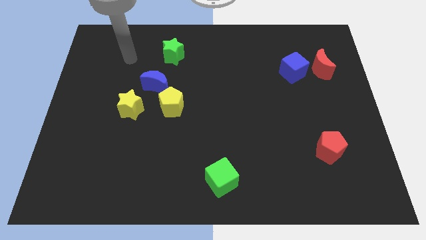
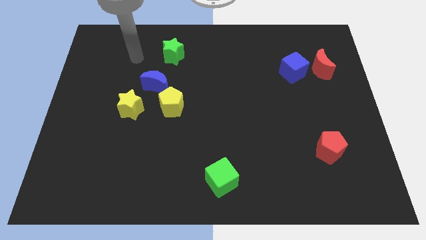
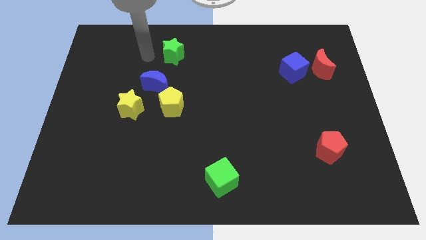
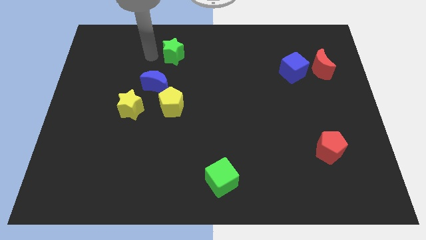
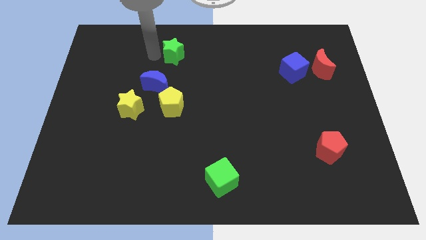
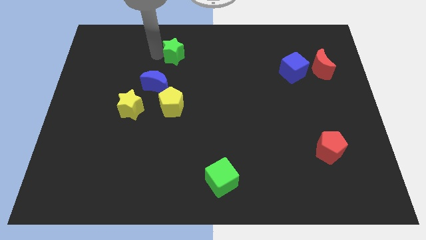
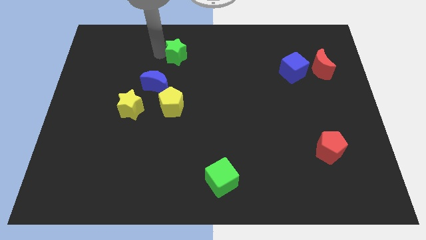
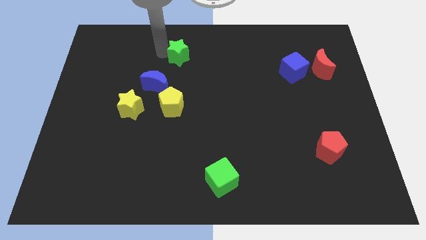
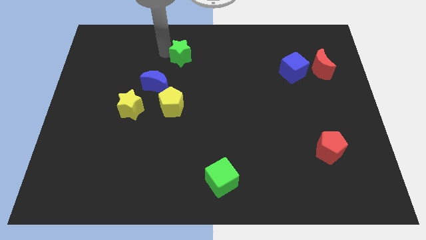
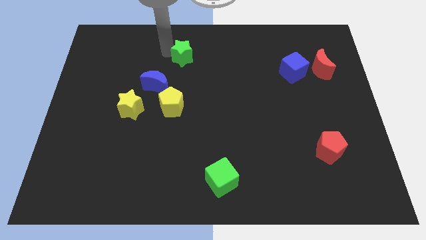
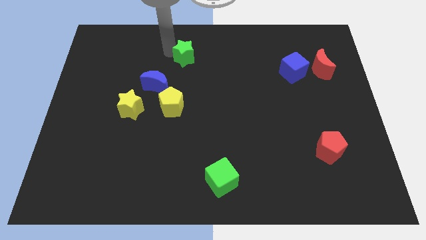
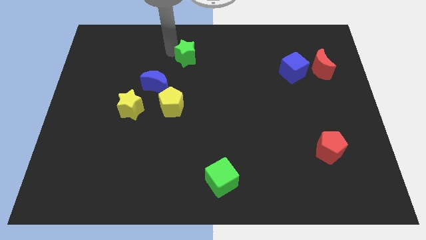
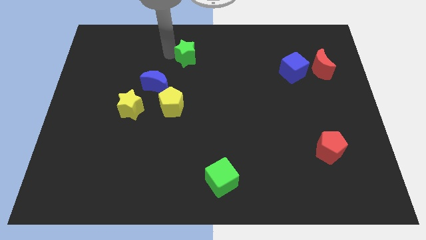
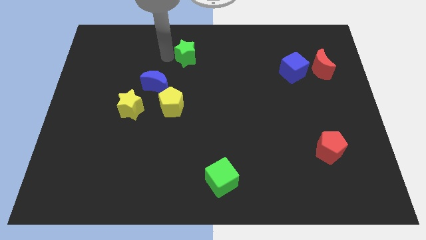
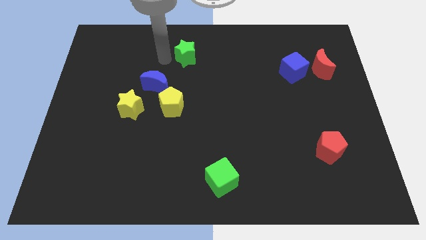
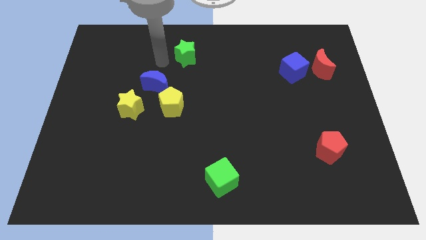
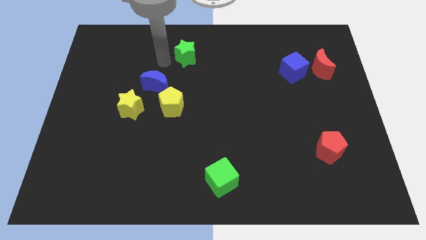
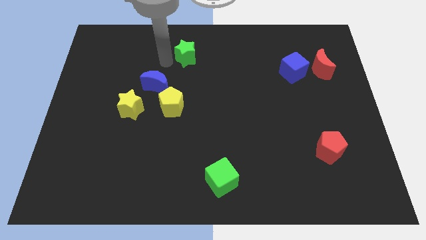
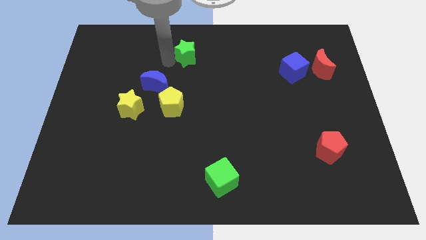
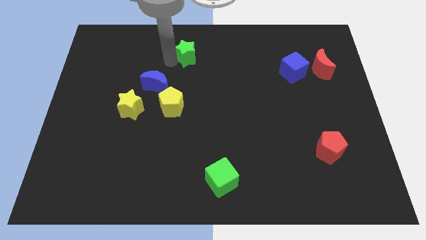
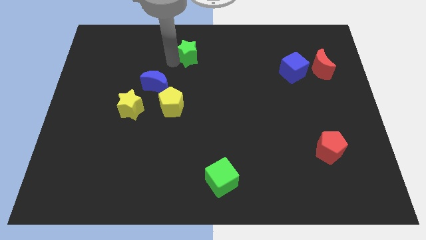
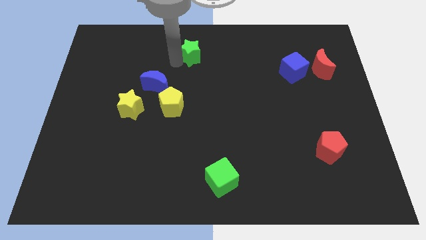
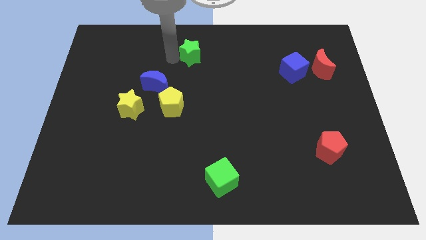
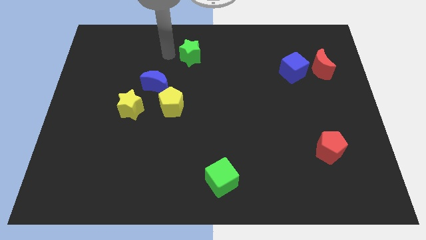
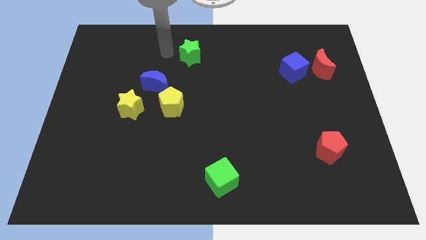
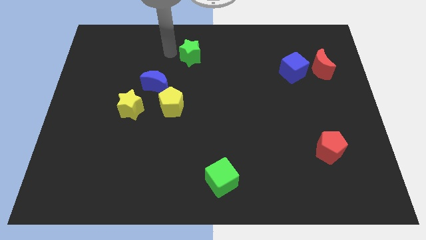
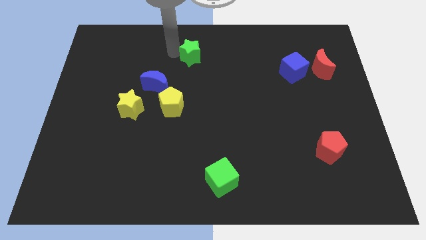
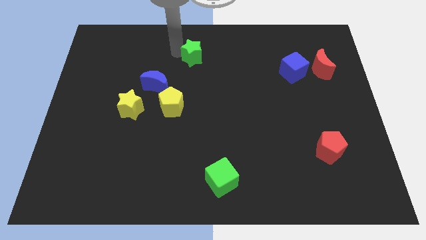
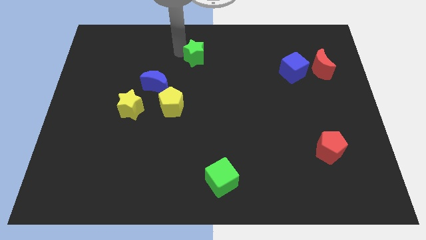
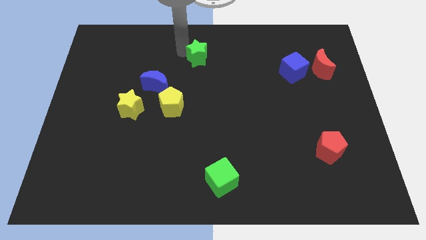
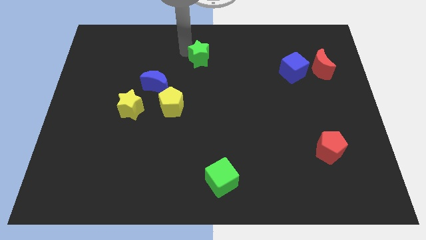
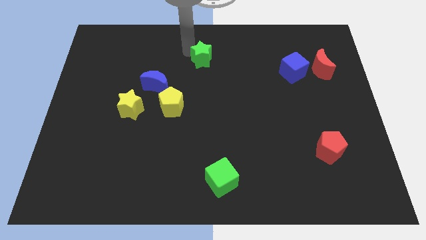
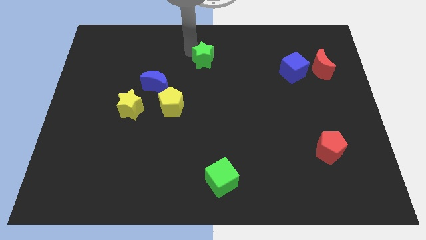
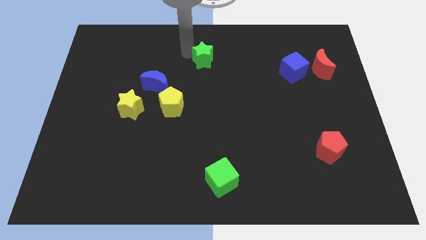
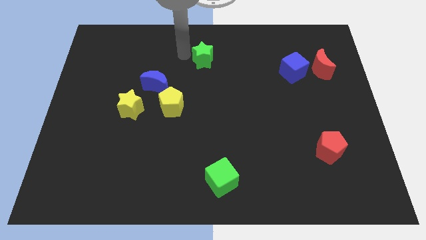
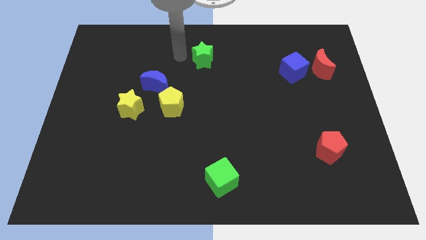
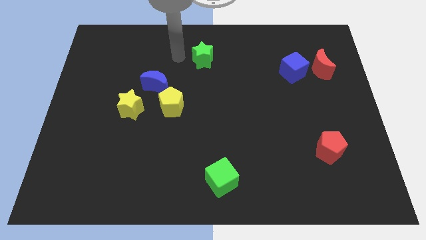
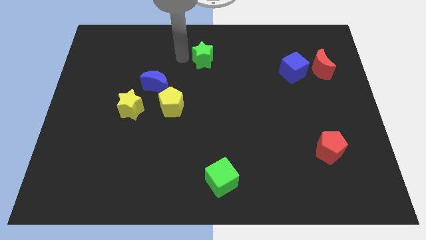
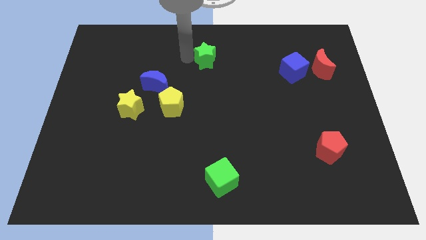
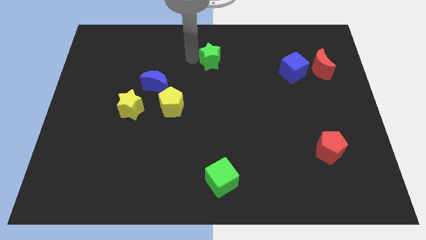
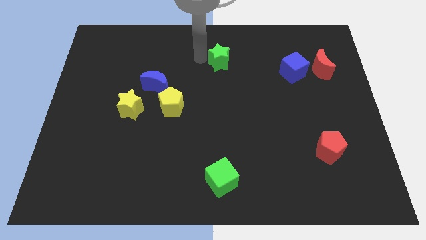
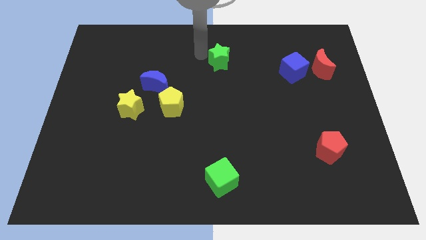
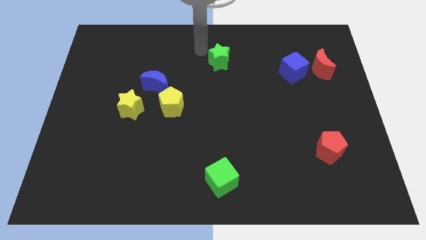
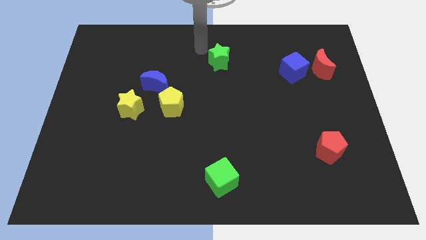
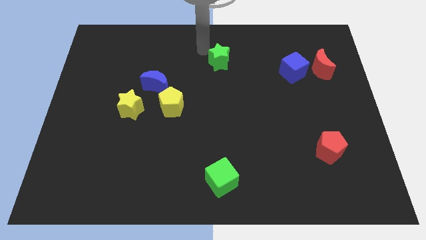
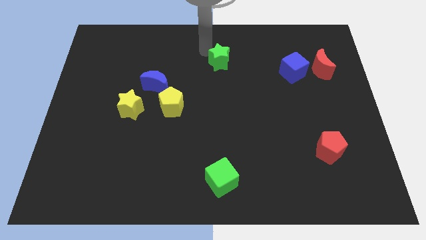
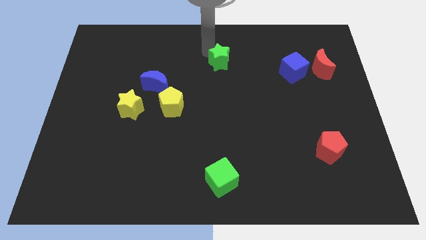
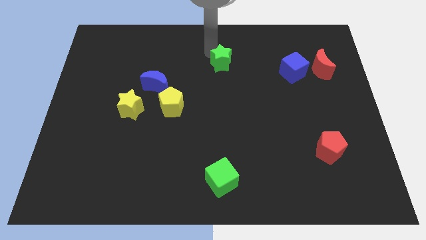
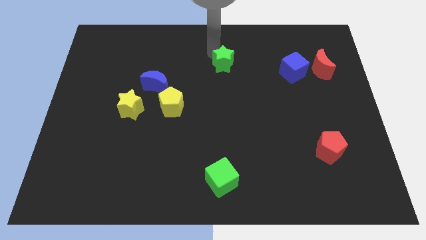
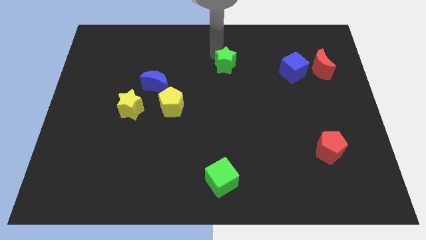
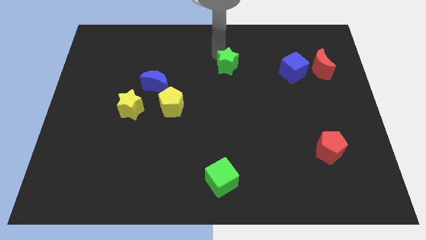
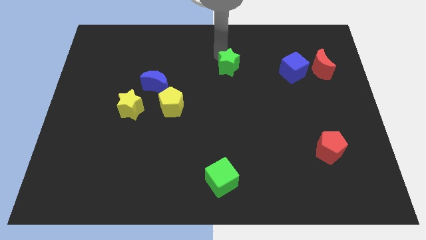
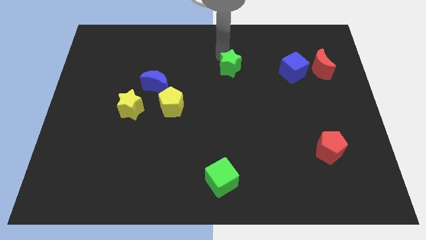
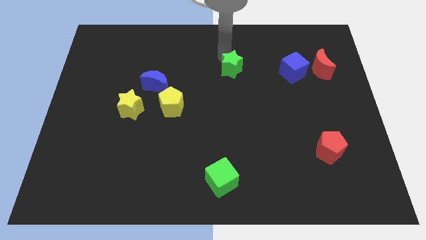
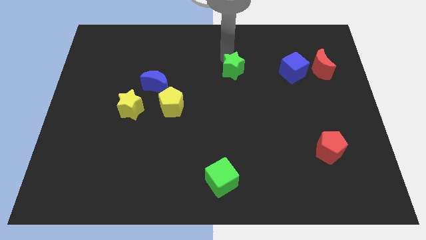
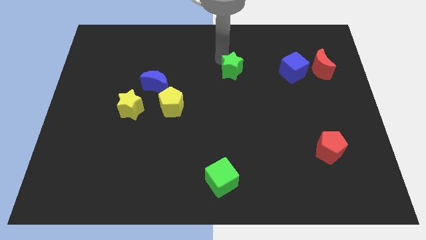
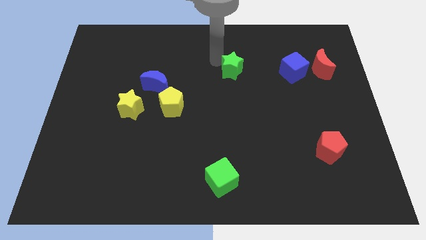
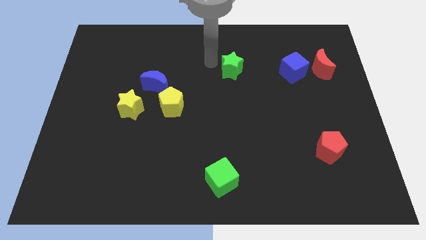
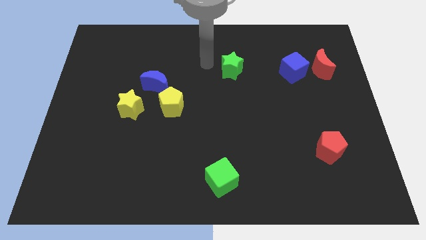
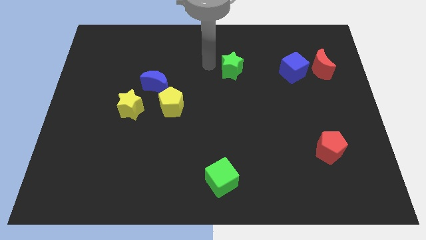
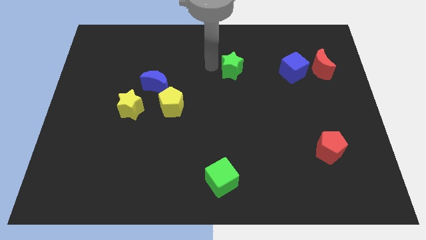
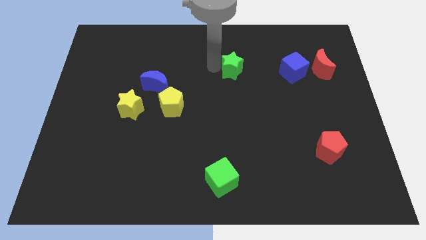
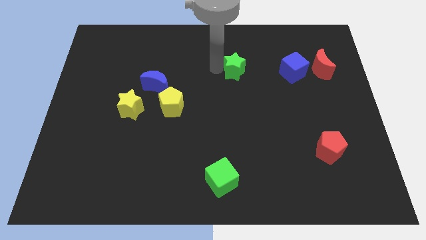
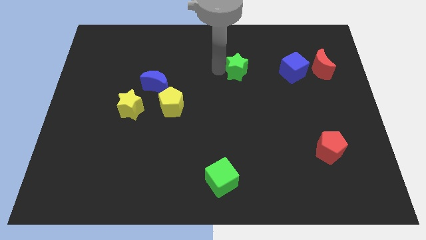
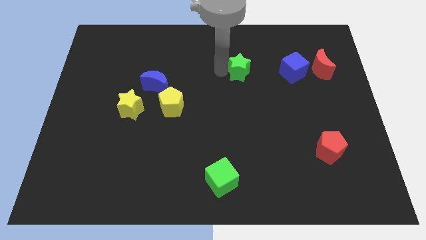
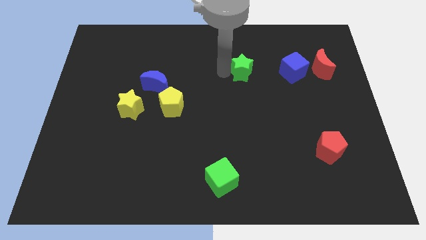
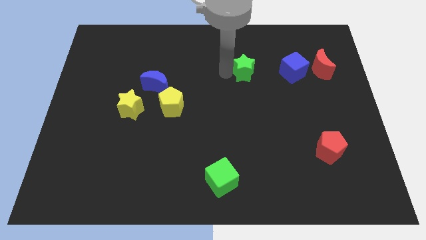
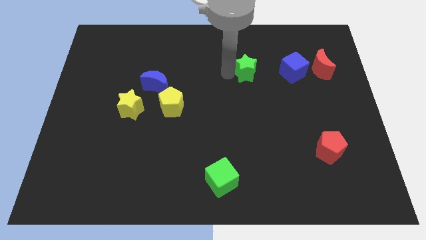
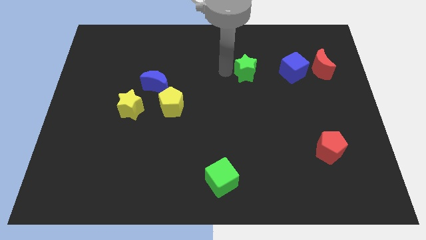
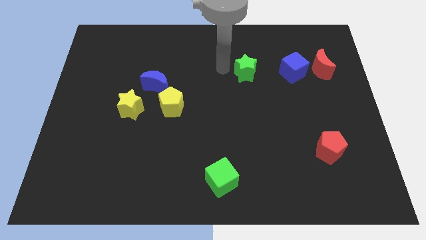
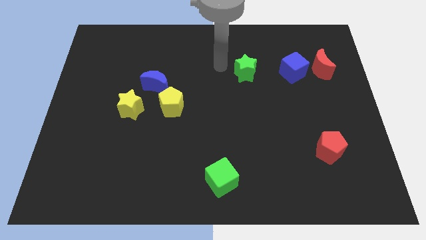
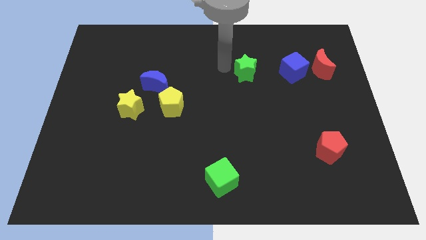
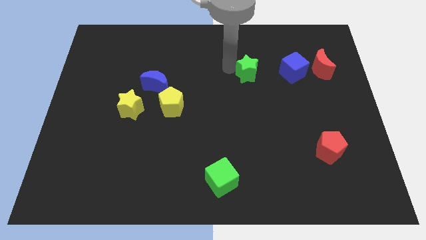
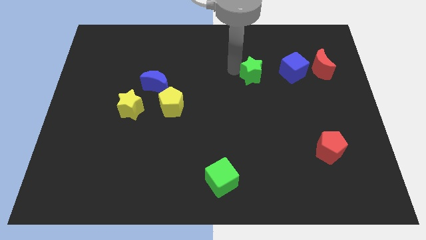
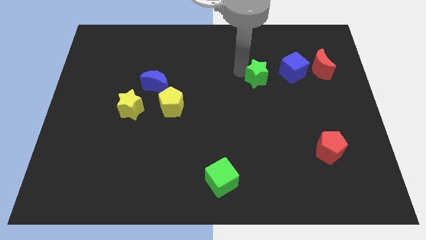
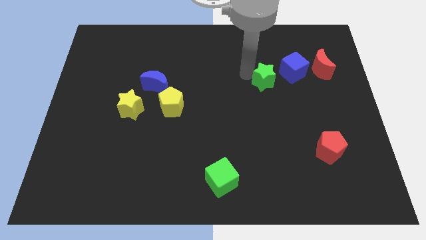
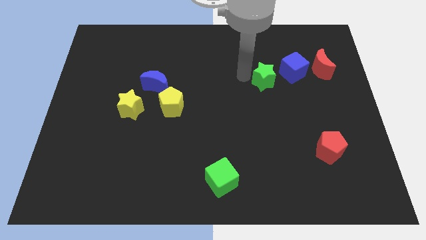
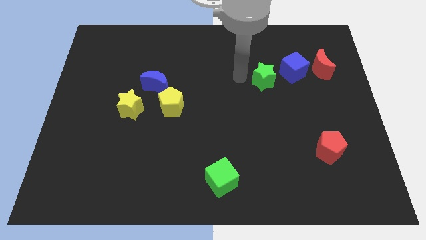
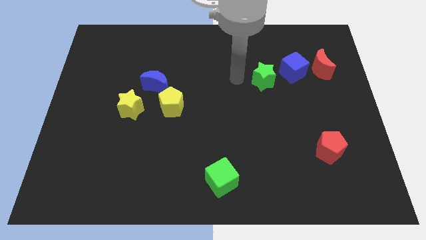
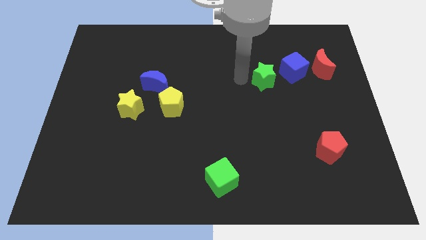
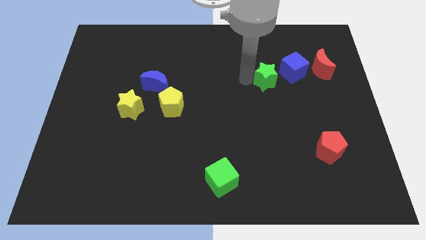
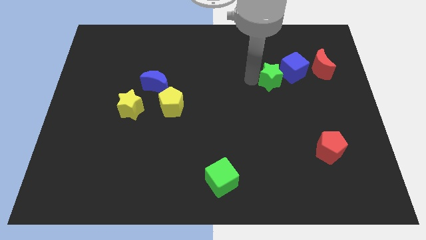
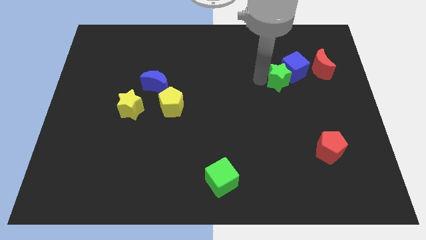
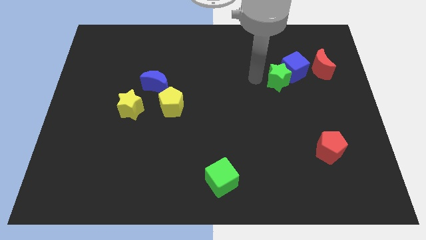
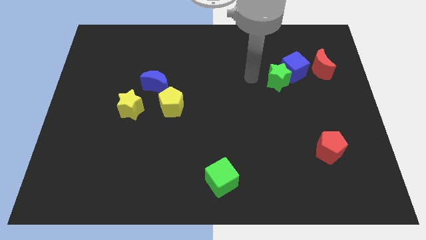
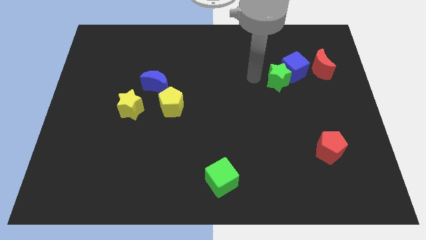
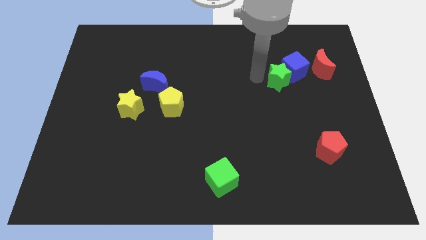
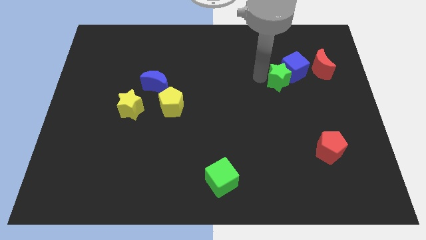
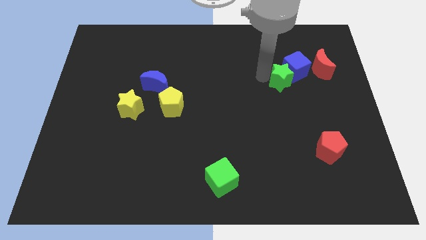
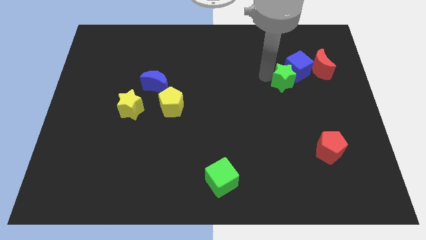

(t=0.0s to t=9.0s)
slide the green star to the bottom left side of the red moon
